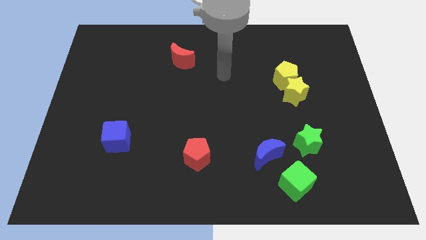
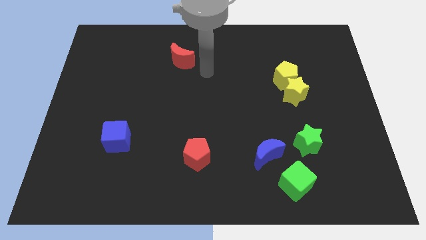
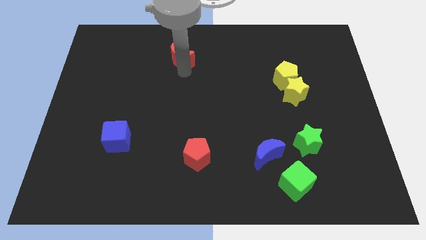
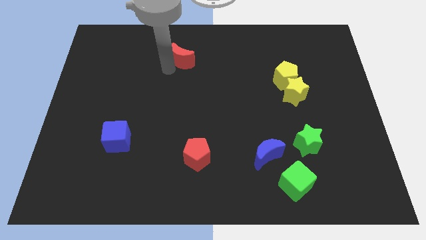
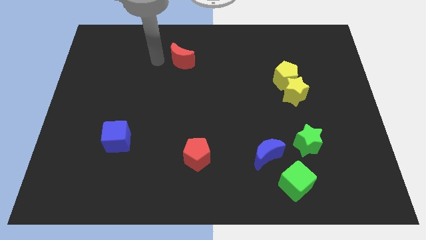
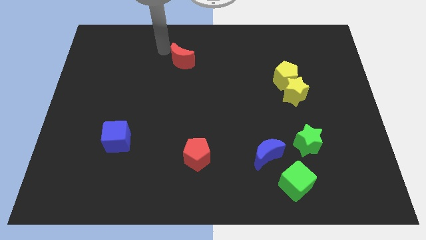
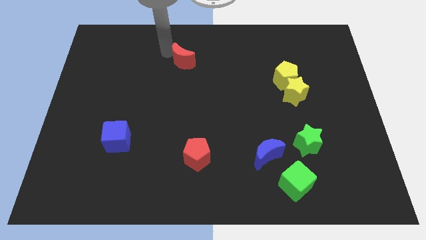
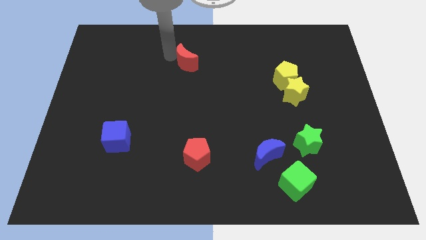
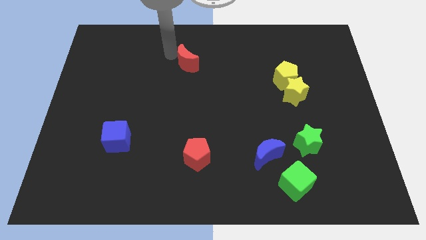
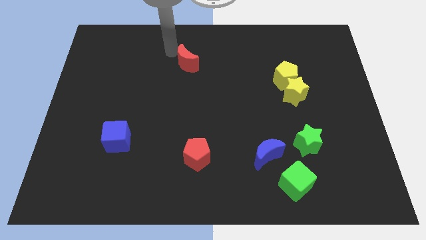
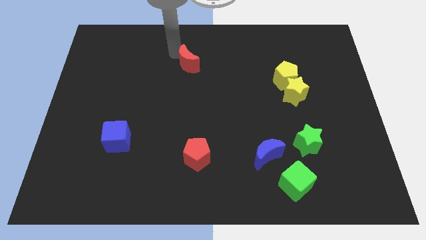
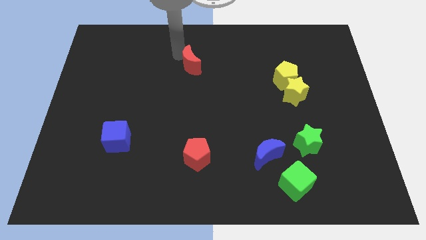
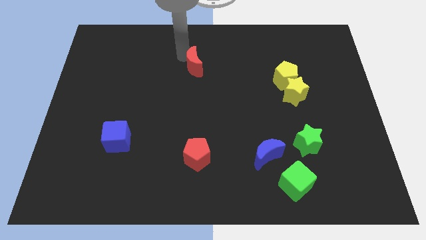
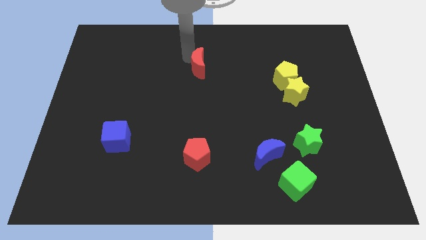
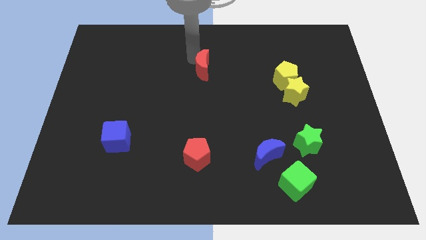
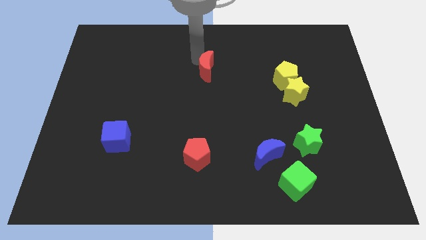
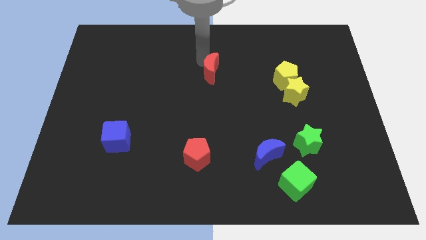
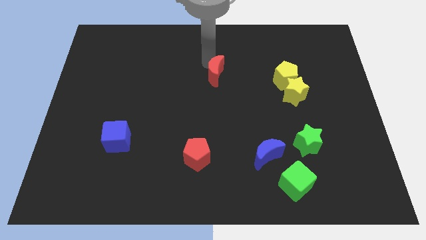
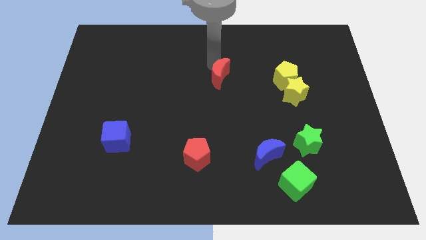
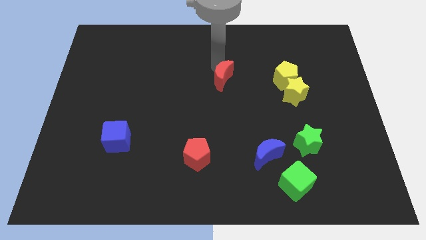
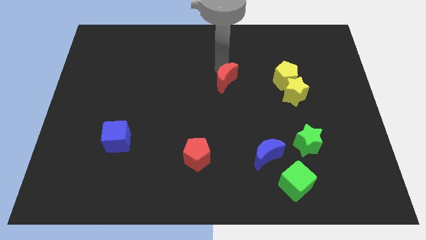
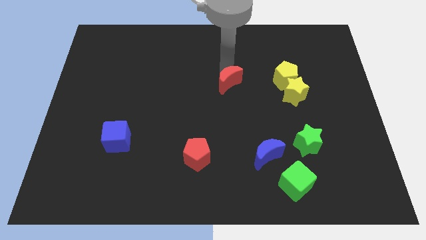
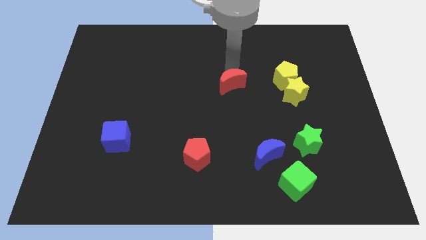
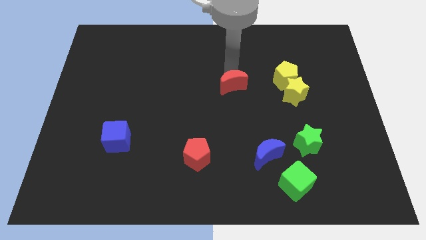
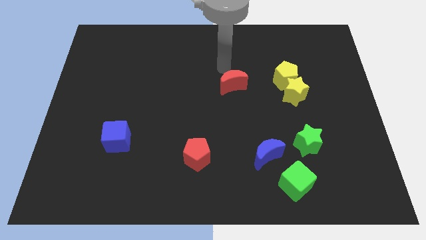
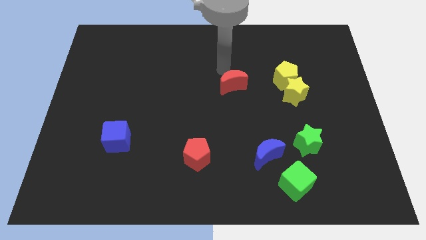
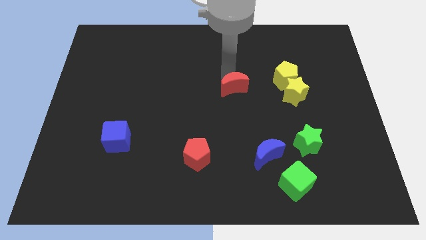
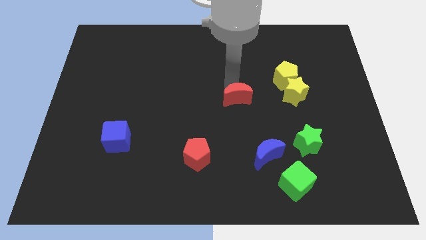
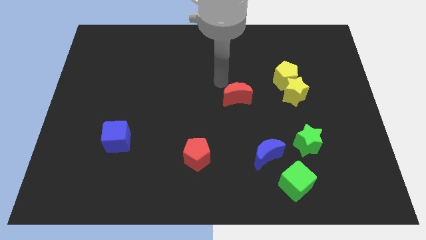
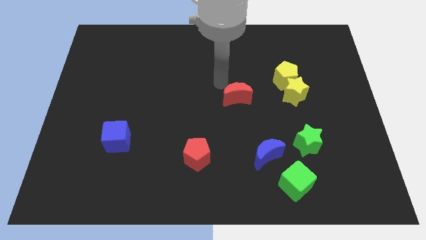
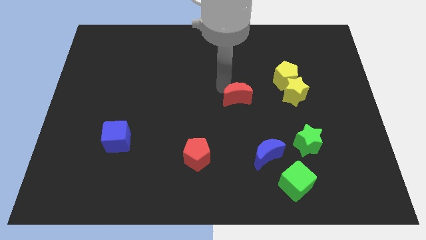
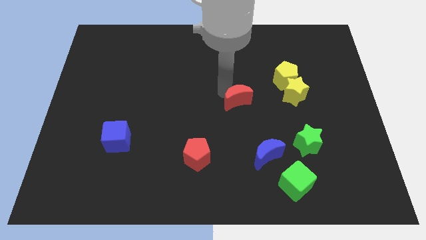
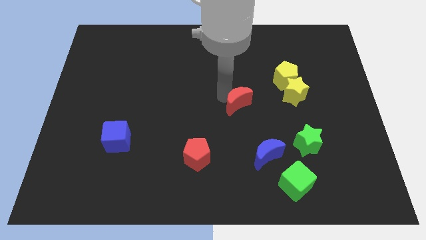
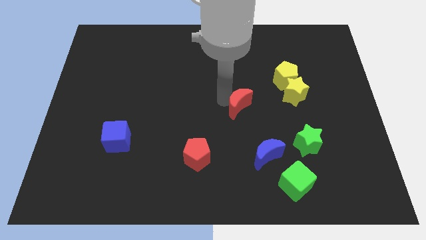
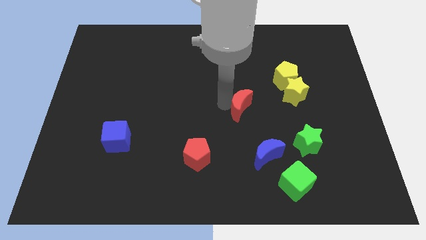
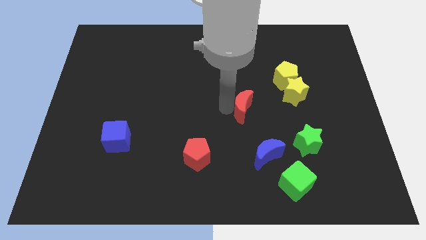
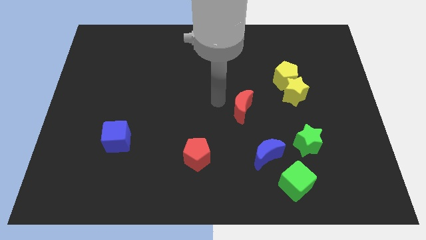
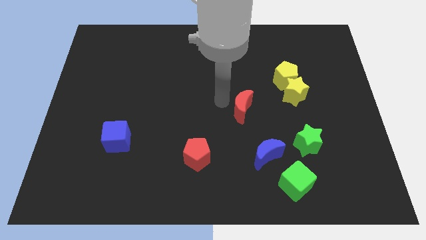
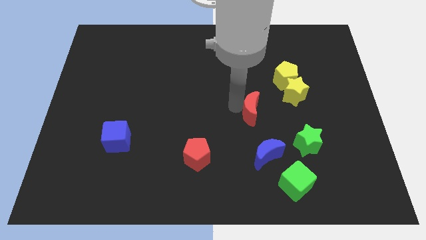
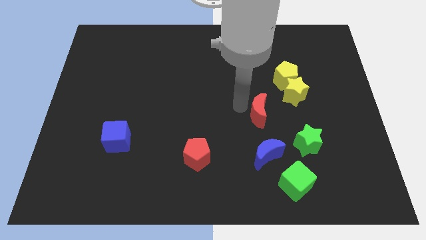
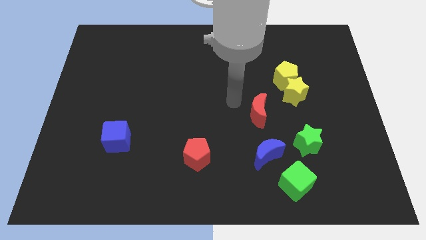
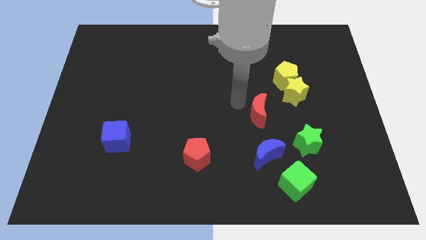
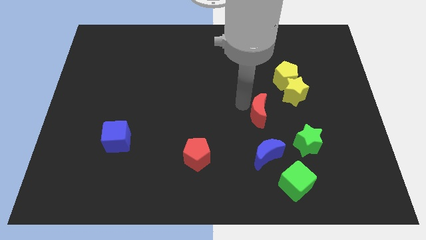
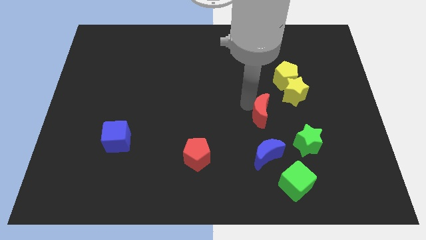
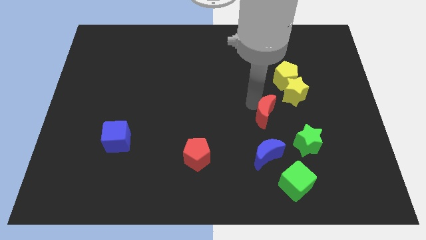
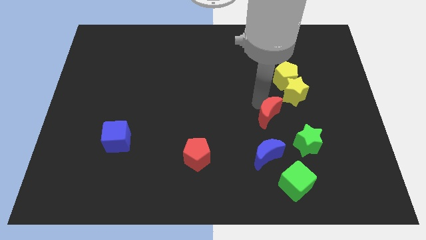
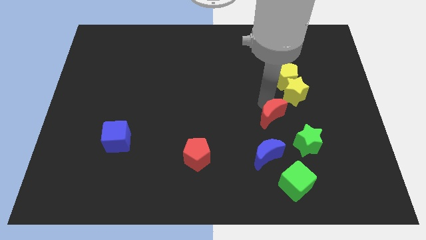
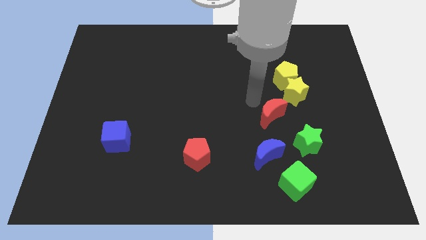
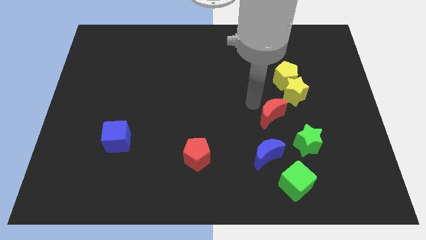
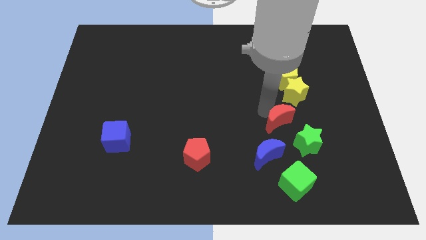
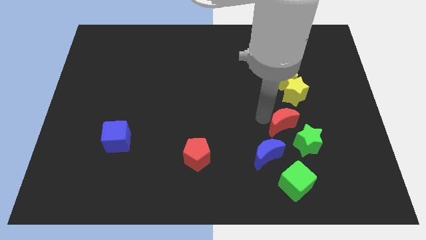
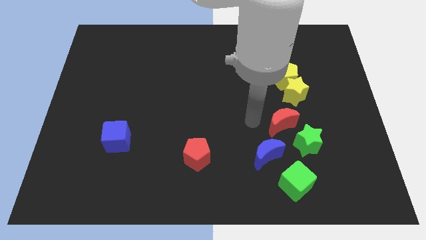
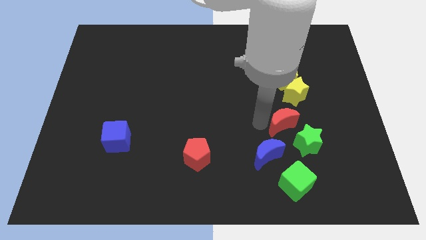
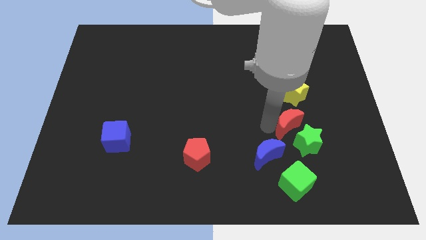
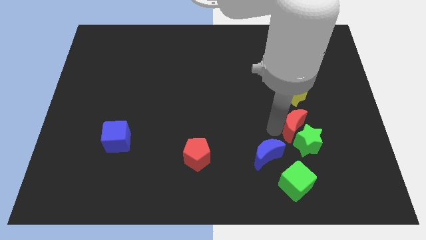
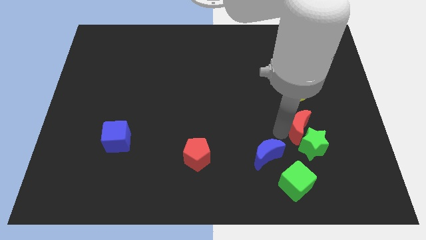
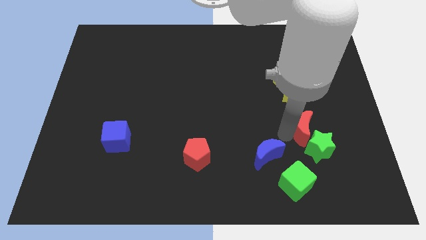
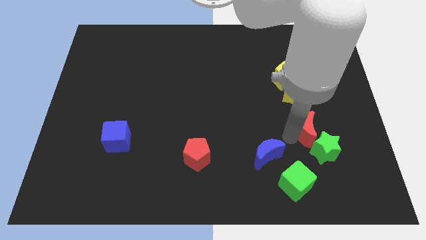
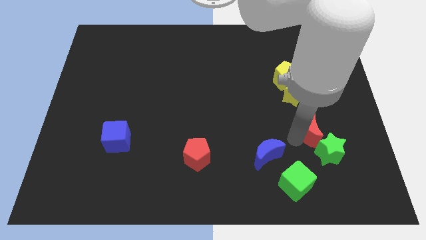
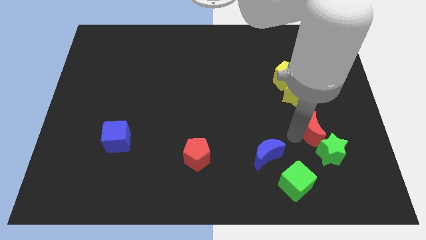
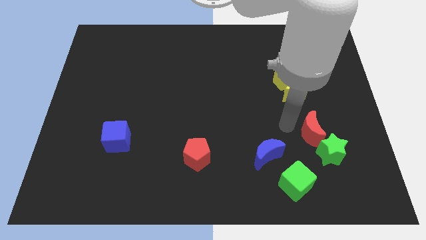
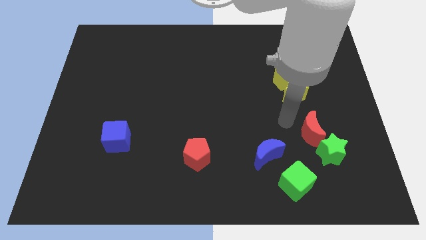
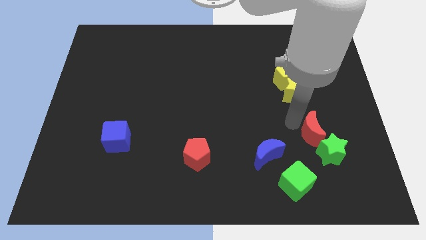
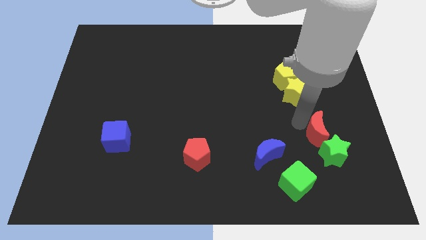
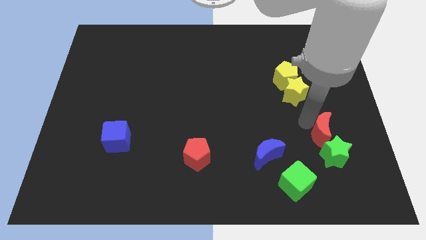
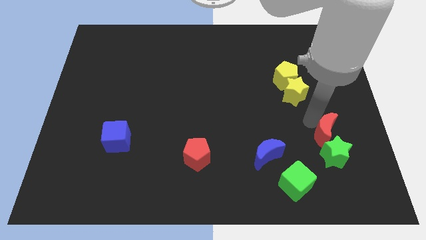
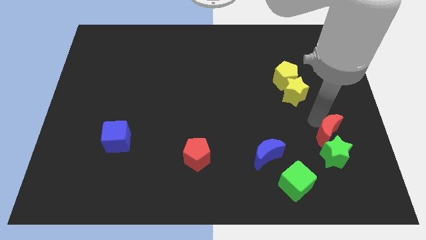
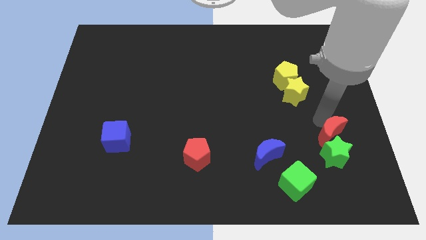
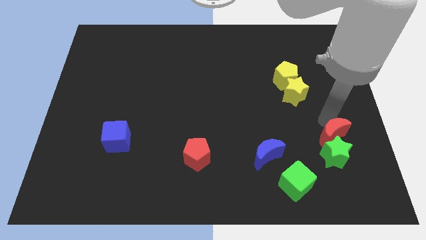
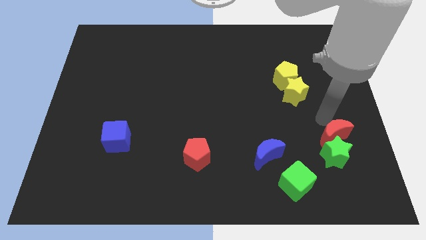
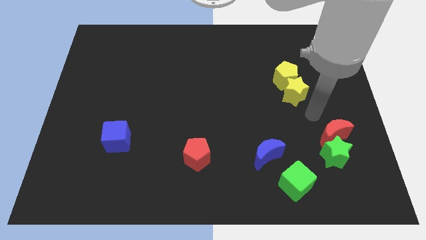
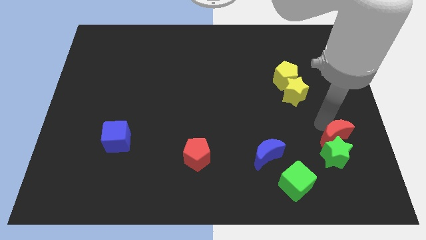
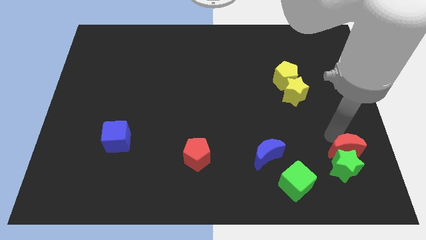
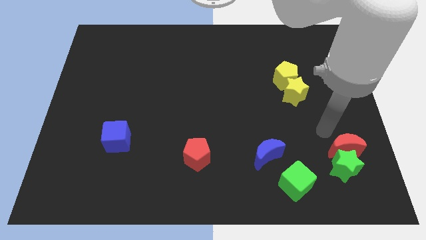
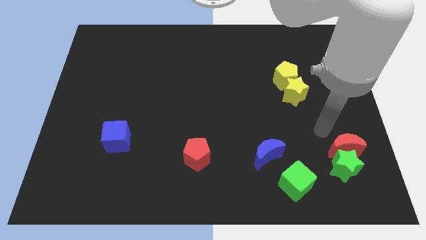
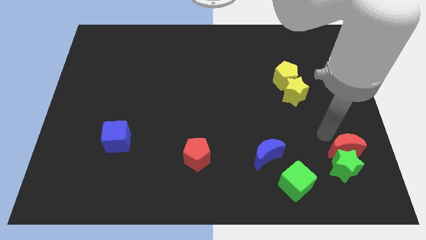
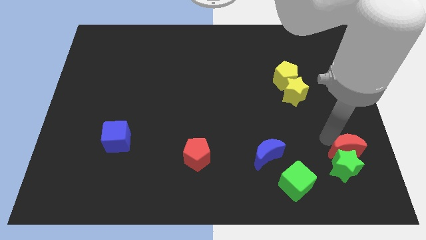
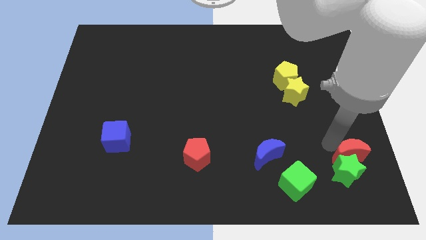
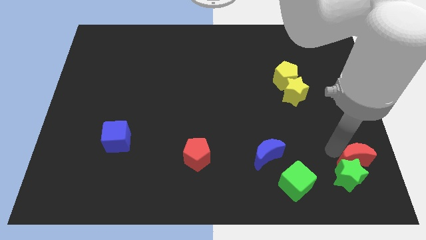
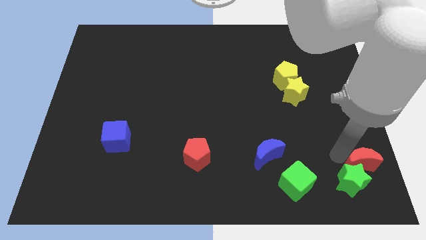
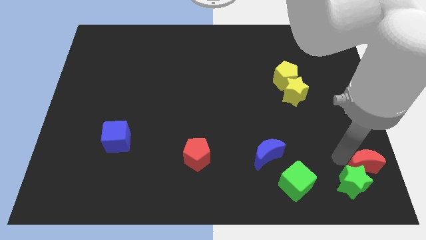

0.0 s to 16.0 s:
slide the red moon to the lower right corner
